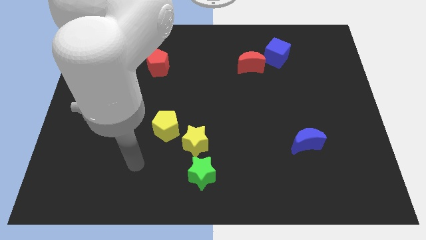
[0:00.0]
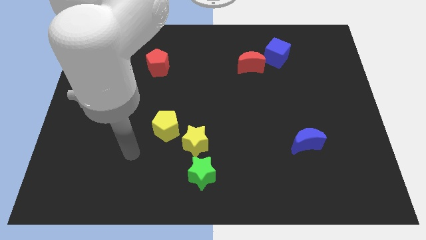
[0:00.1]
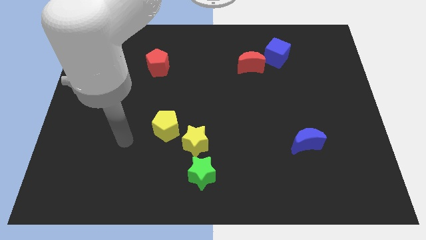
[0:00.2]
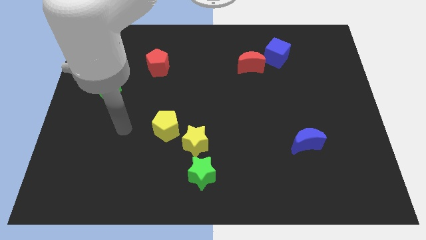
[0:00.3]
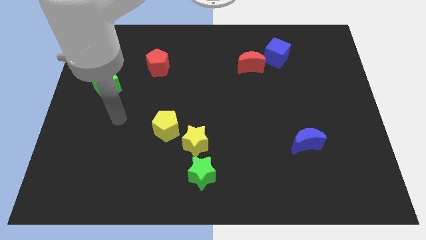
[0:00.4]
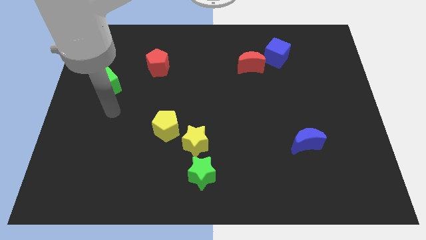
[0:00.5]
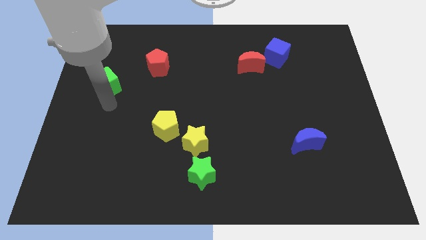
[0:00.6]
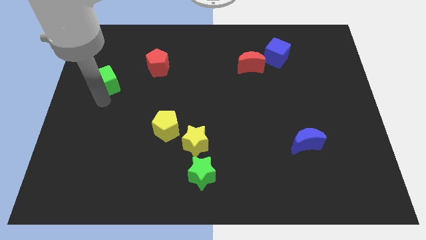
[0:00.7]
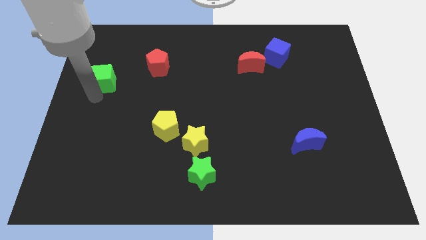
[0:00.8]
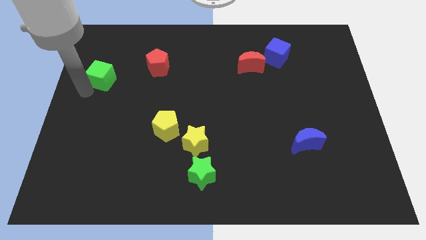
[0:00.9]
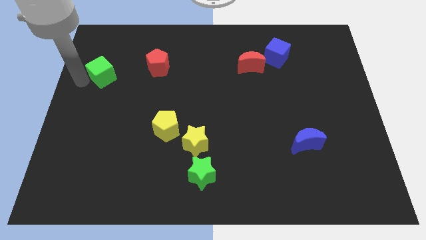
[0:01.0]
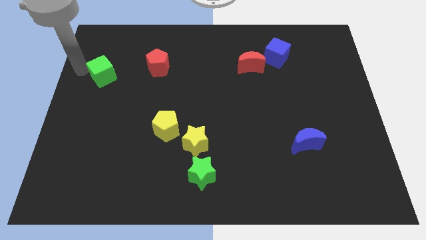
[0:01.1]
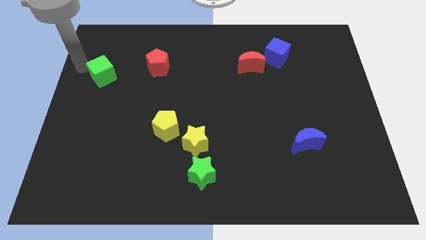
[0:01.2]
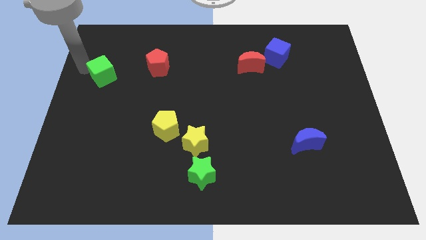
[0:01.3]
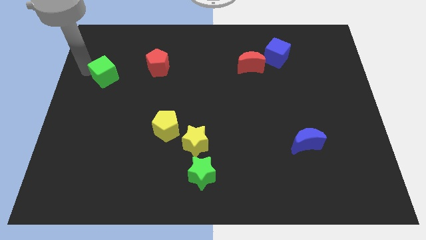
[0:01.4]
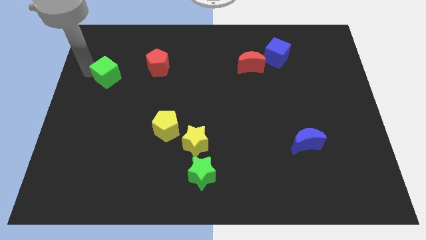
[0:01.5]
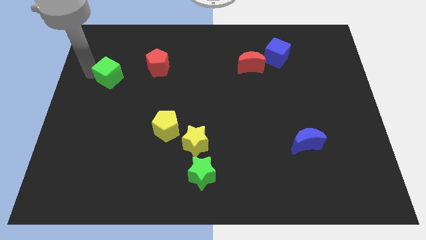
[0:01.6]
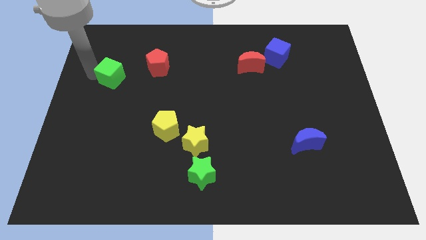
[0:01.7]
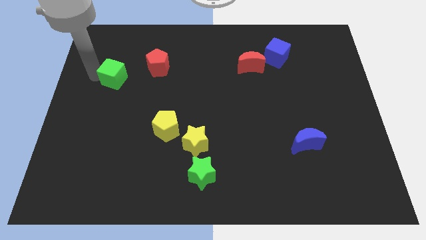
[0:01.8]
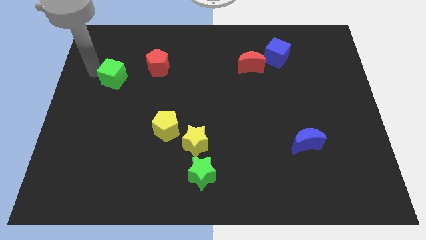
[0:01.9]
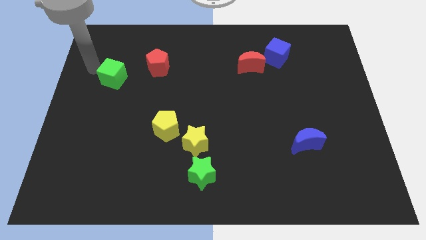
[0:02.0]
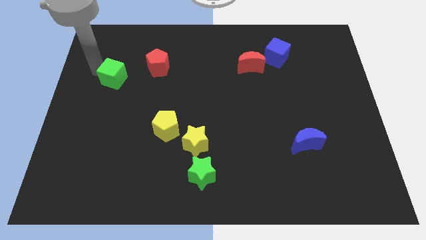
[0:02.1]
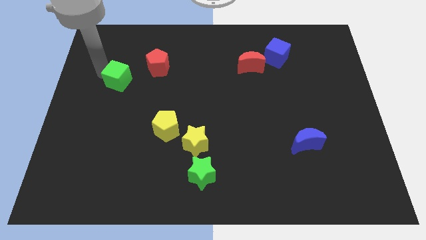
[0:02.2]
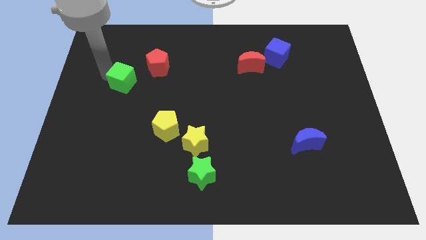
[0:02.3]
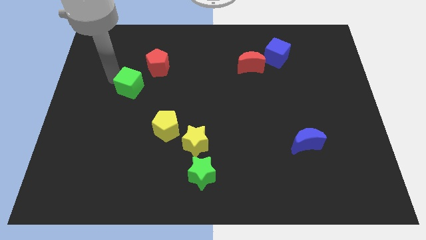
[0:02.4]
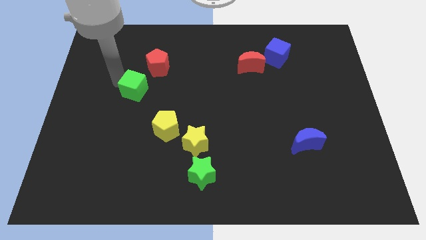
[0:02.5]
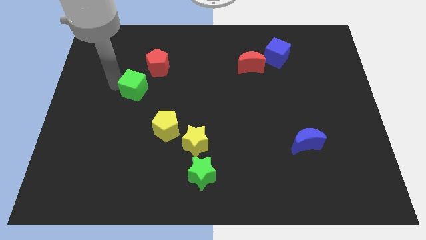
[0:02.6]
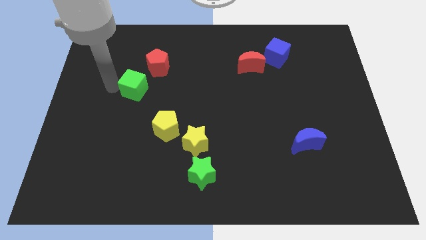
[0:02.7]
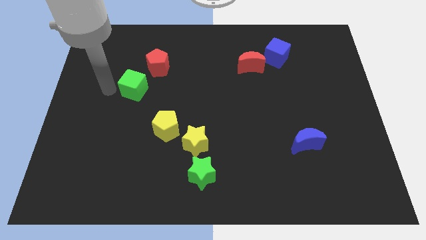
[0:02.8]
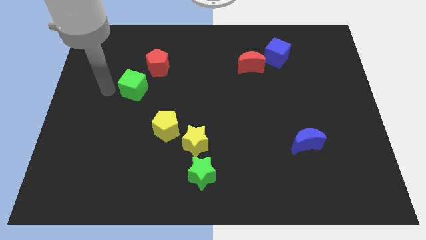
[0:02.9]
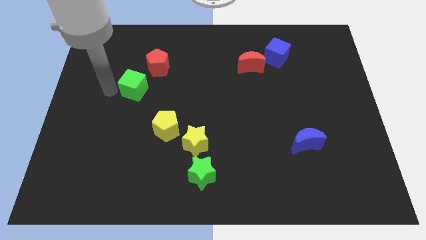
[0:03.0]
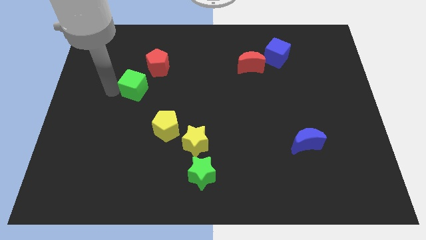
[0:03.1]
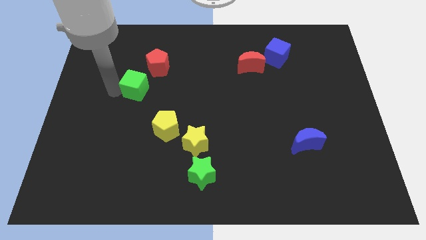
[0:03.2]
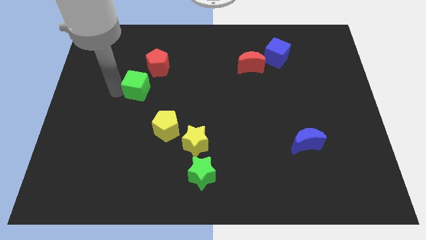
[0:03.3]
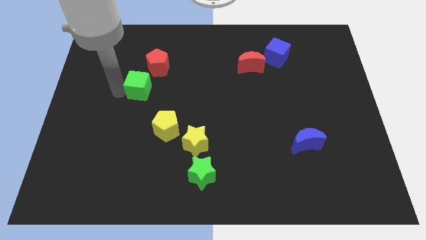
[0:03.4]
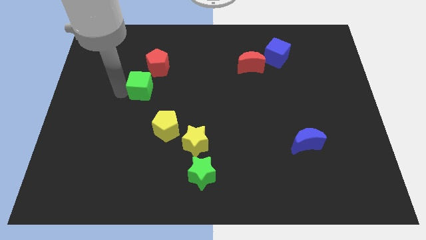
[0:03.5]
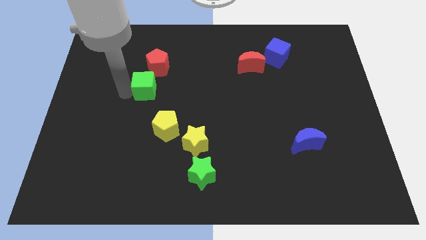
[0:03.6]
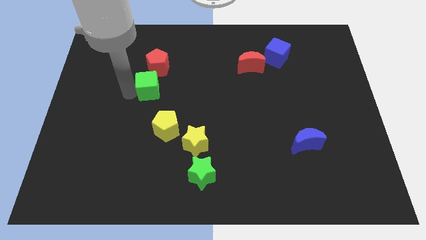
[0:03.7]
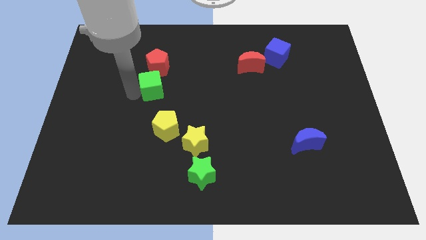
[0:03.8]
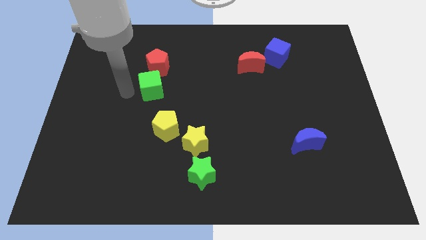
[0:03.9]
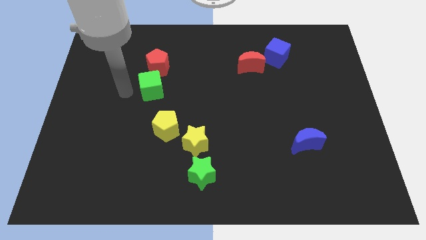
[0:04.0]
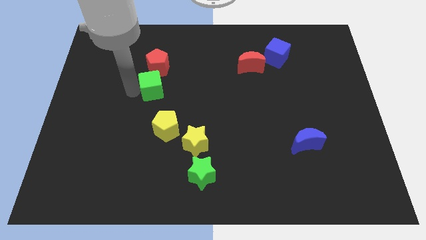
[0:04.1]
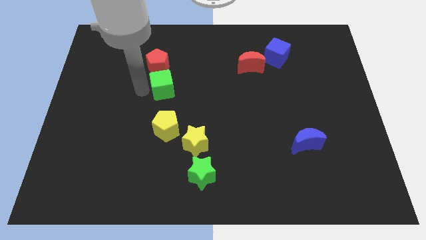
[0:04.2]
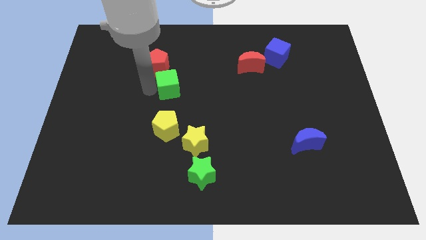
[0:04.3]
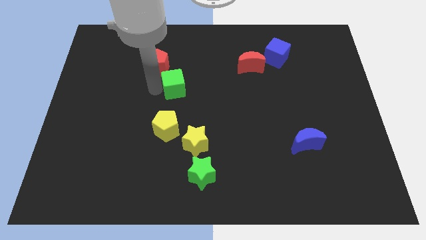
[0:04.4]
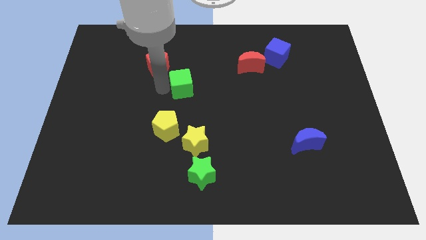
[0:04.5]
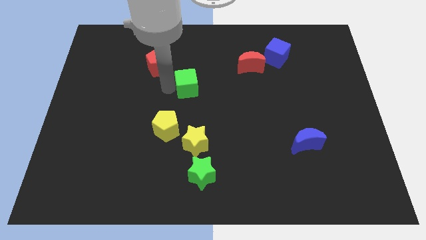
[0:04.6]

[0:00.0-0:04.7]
push the green cube right

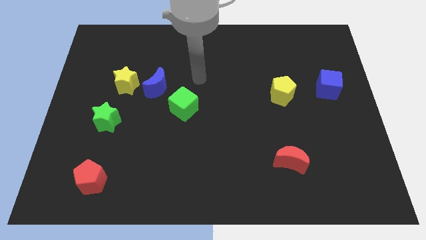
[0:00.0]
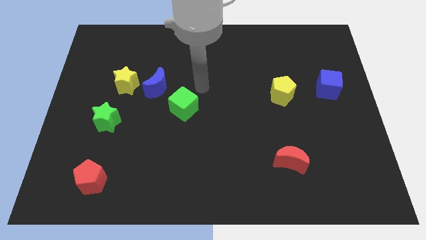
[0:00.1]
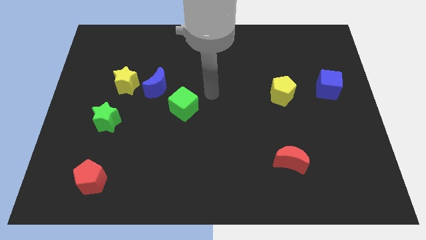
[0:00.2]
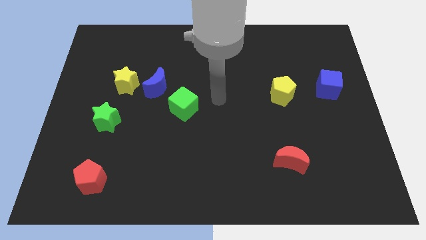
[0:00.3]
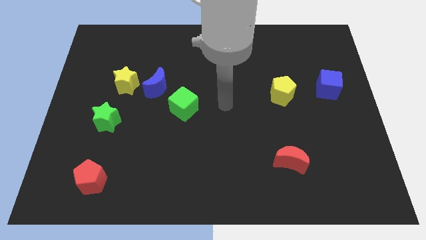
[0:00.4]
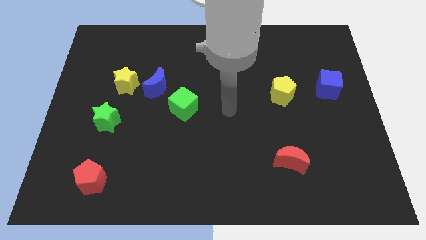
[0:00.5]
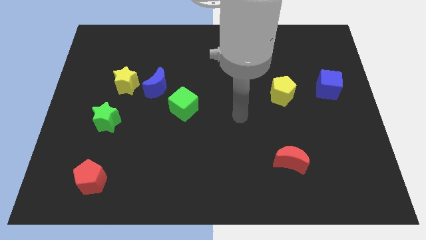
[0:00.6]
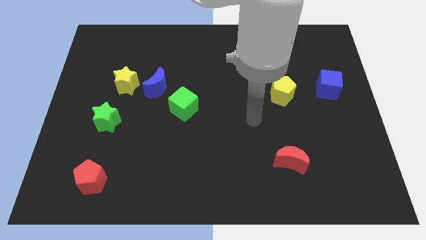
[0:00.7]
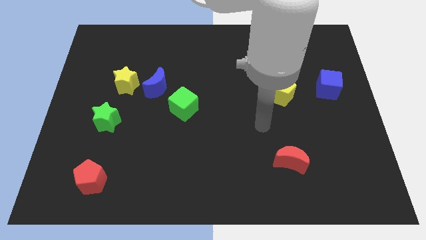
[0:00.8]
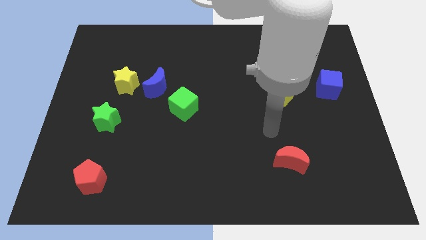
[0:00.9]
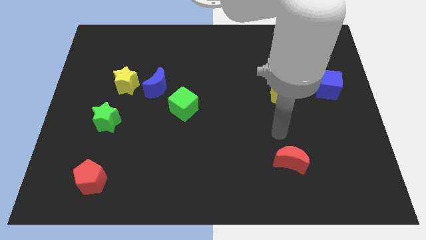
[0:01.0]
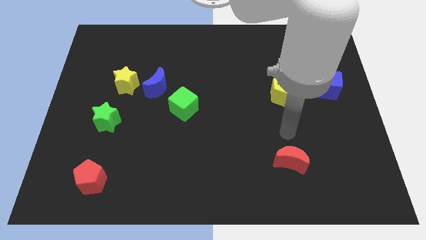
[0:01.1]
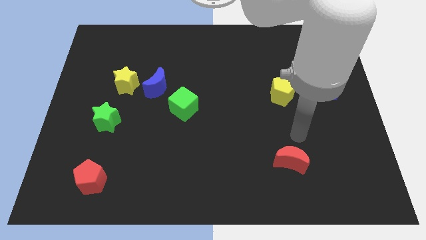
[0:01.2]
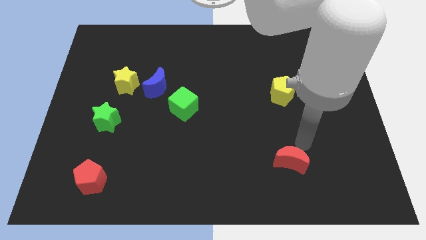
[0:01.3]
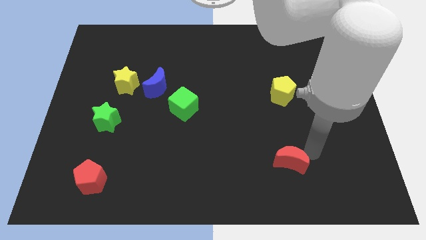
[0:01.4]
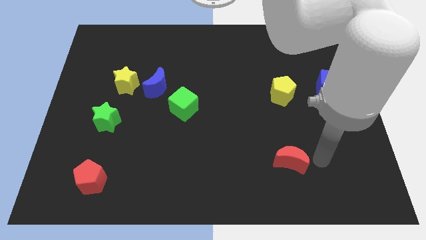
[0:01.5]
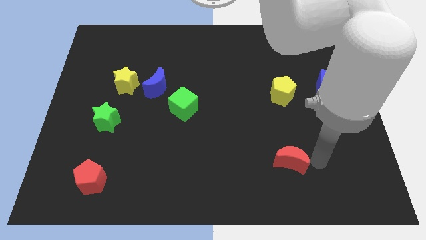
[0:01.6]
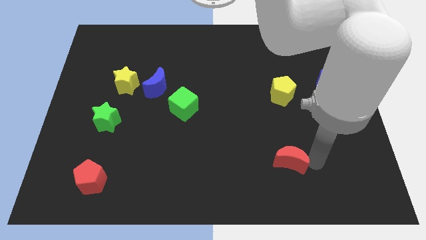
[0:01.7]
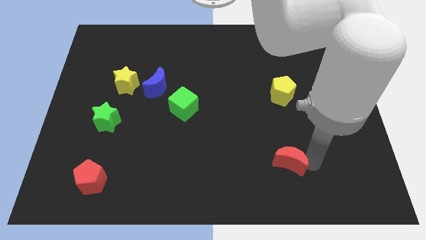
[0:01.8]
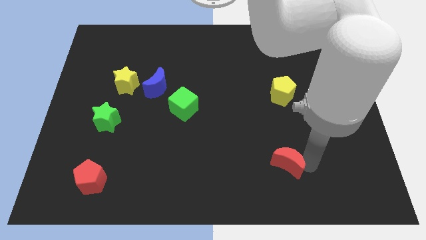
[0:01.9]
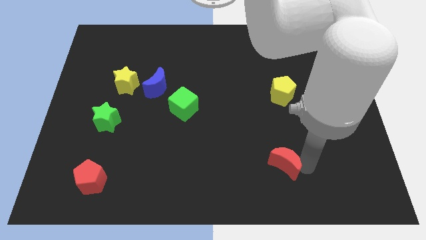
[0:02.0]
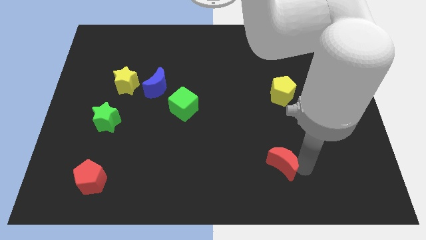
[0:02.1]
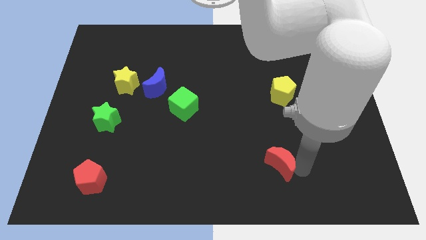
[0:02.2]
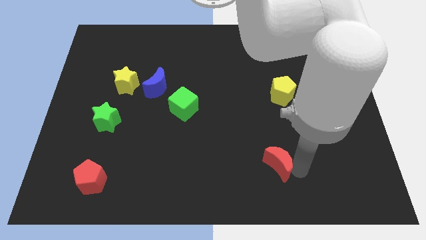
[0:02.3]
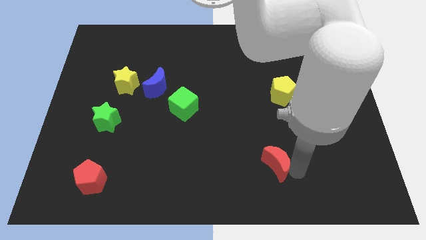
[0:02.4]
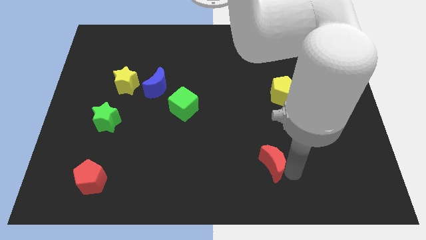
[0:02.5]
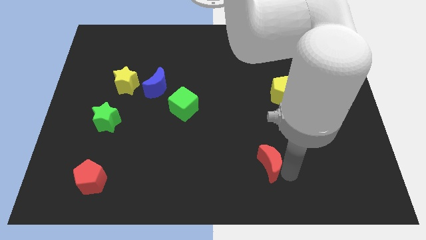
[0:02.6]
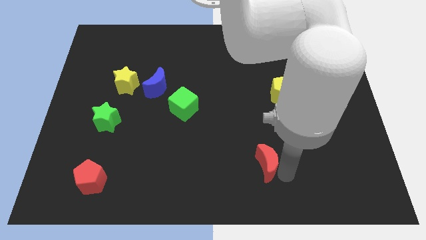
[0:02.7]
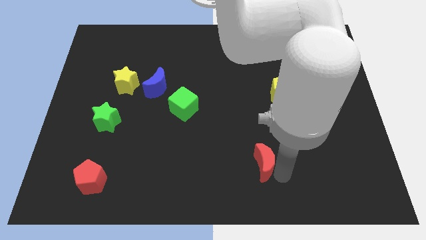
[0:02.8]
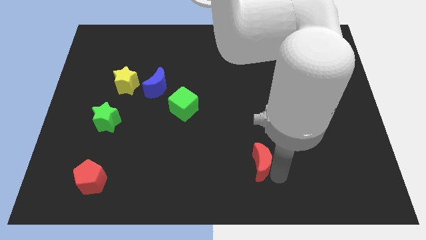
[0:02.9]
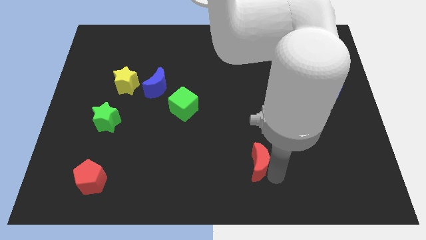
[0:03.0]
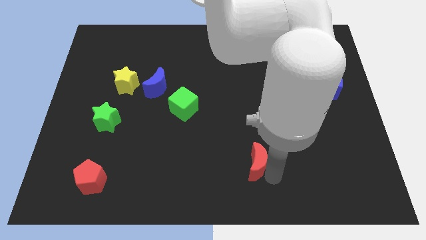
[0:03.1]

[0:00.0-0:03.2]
slide the red moon to the left slightly
